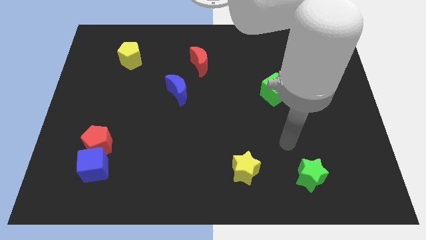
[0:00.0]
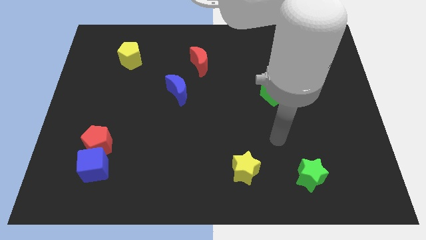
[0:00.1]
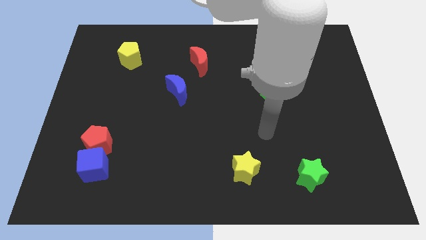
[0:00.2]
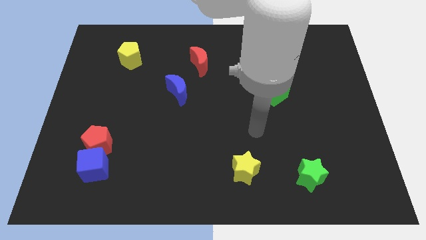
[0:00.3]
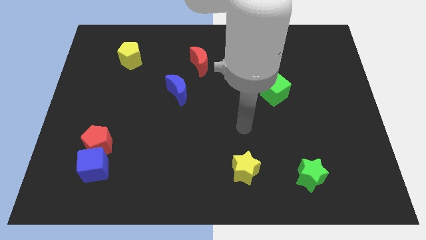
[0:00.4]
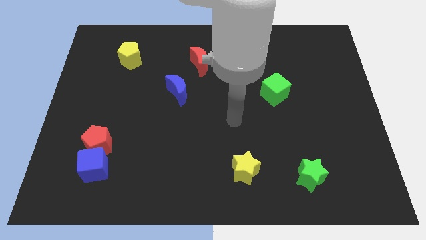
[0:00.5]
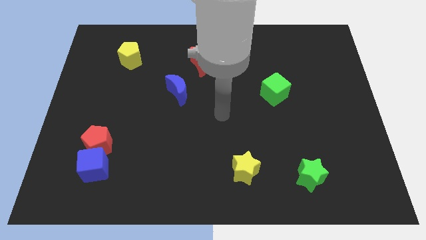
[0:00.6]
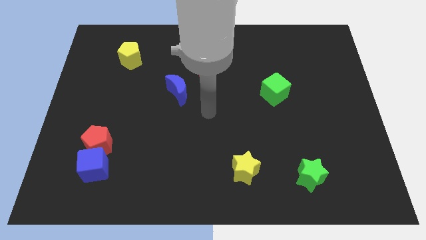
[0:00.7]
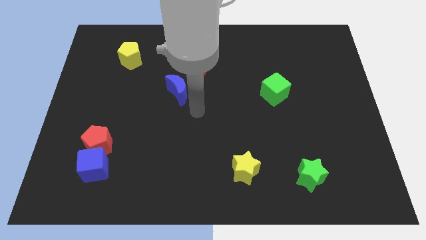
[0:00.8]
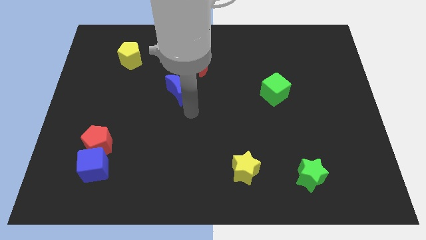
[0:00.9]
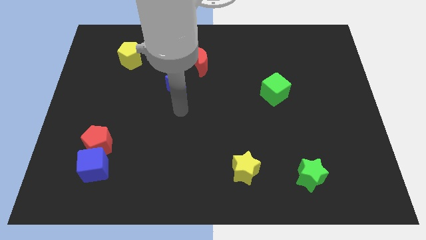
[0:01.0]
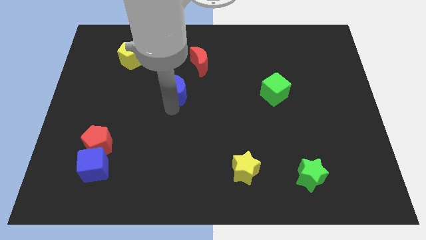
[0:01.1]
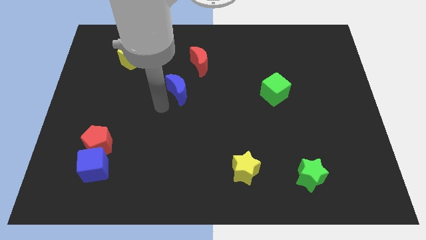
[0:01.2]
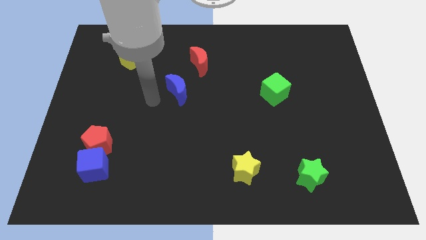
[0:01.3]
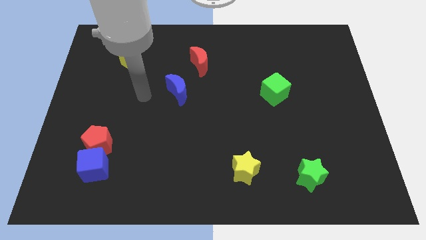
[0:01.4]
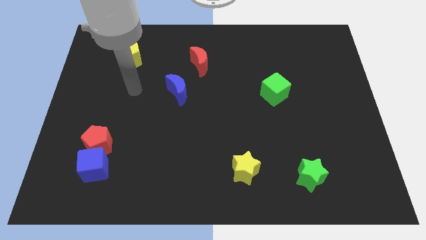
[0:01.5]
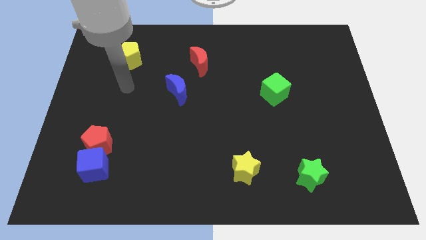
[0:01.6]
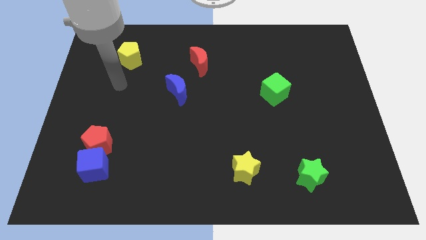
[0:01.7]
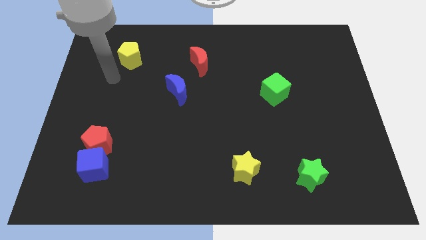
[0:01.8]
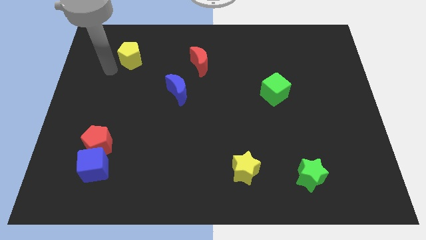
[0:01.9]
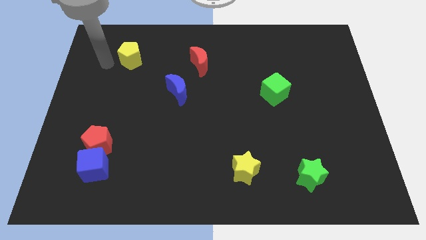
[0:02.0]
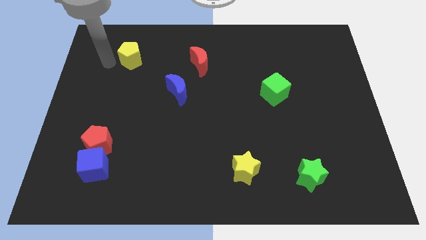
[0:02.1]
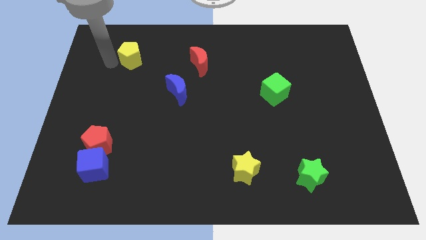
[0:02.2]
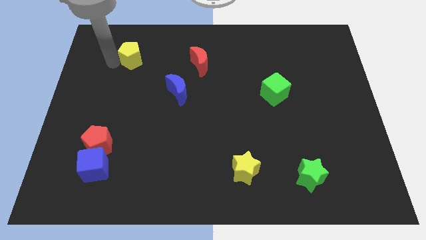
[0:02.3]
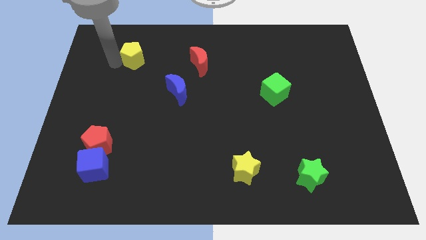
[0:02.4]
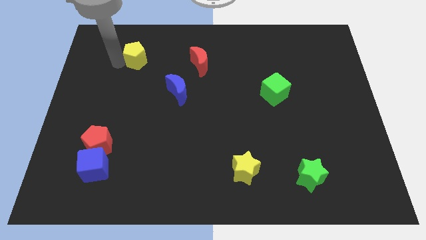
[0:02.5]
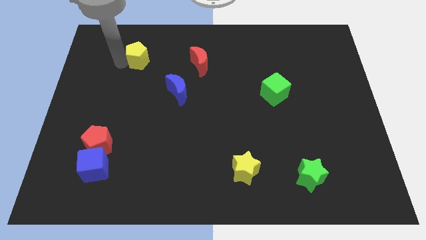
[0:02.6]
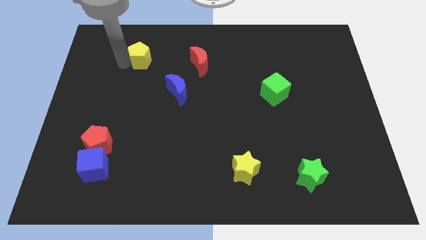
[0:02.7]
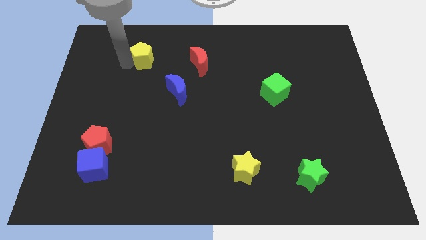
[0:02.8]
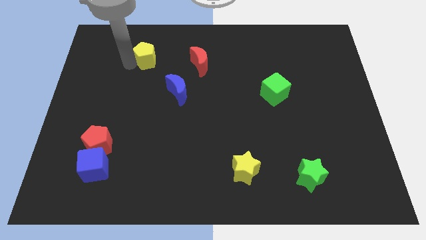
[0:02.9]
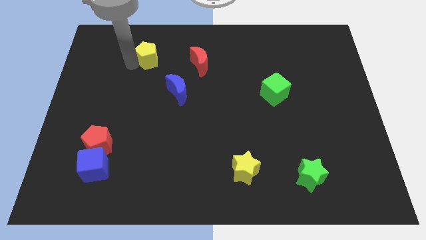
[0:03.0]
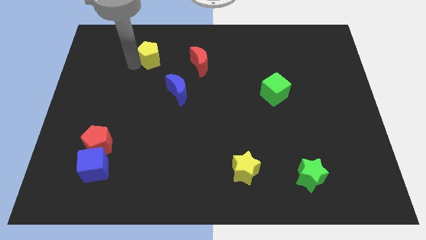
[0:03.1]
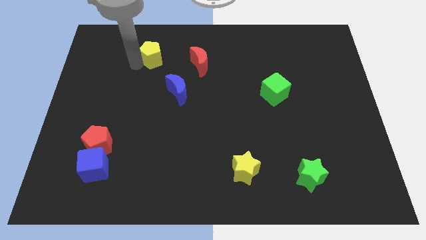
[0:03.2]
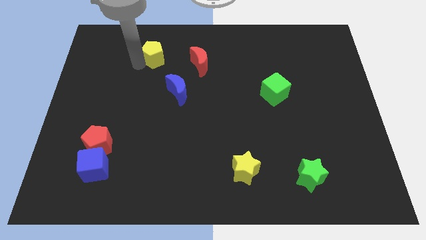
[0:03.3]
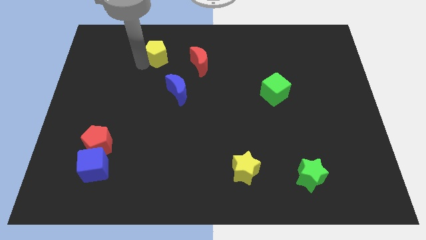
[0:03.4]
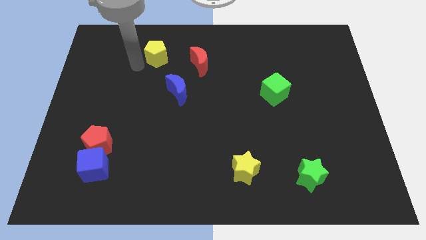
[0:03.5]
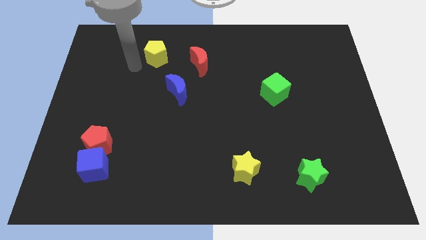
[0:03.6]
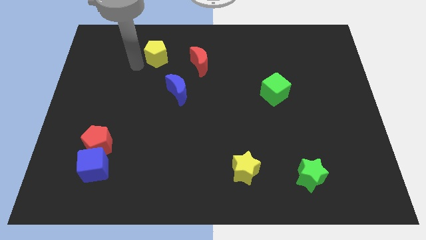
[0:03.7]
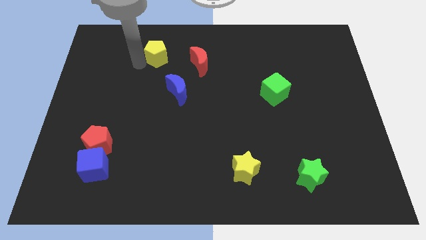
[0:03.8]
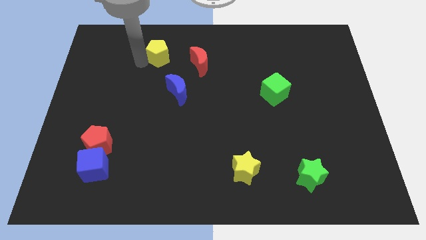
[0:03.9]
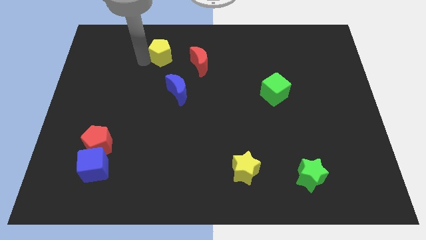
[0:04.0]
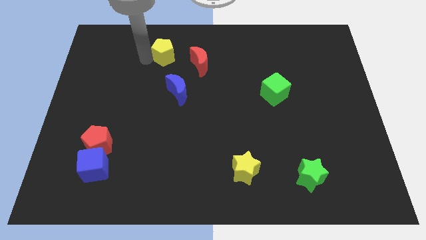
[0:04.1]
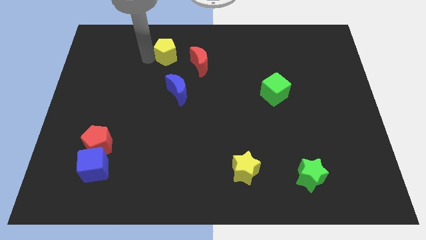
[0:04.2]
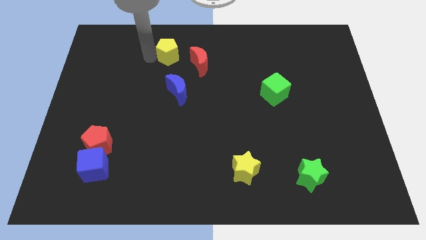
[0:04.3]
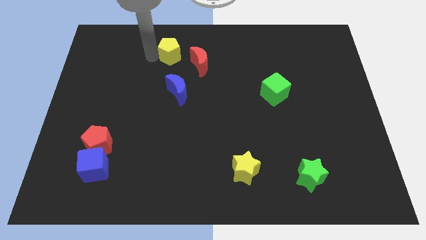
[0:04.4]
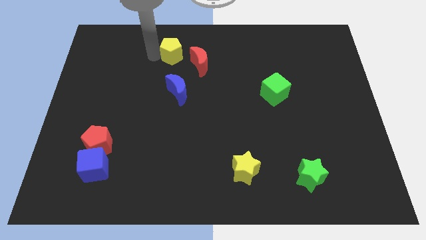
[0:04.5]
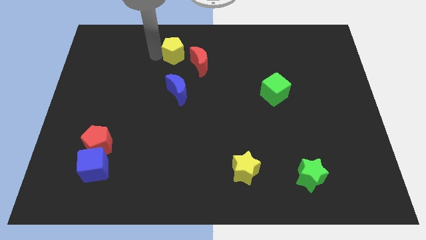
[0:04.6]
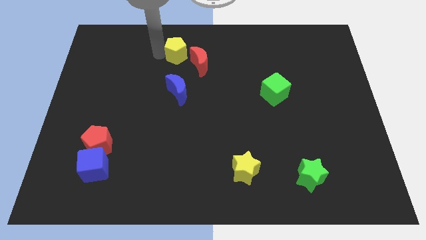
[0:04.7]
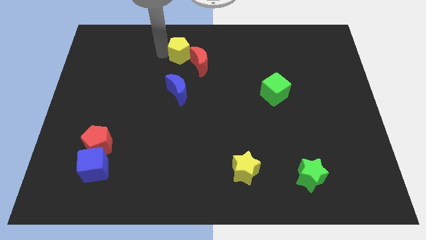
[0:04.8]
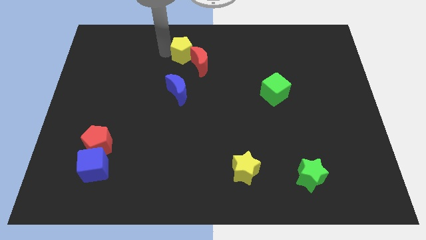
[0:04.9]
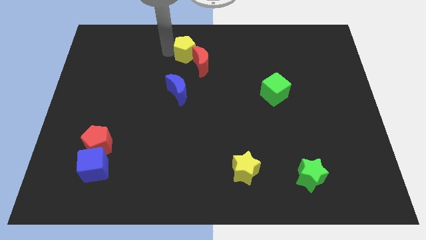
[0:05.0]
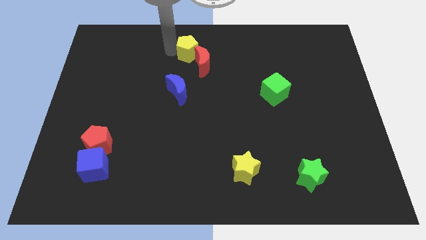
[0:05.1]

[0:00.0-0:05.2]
push the yellow pentagon to the top
